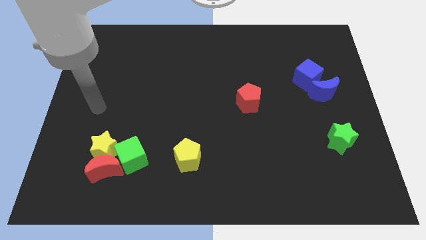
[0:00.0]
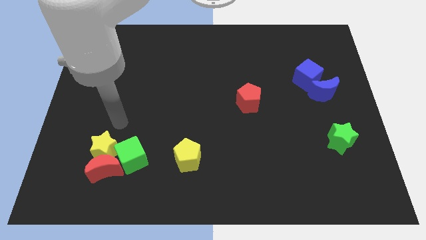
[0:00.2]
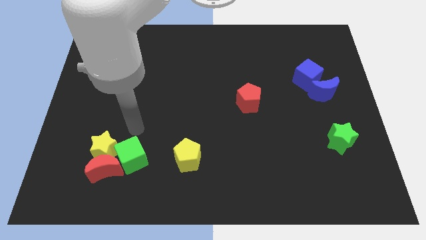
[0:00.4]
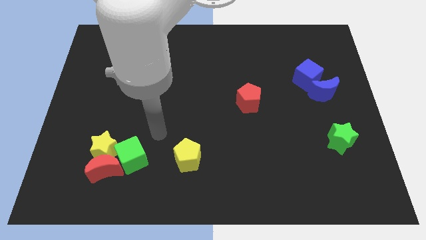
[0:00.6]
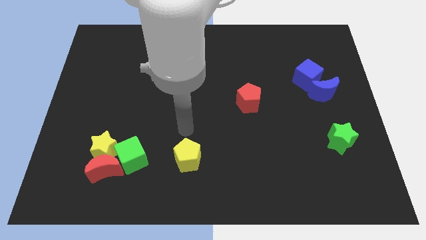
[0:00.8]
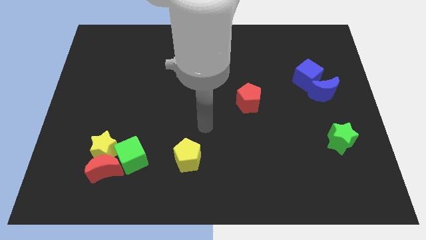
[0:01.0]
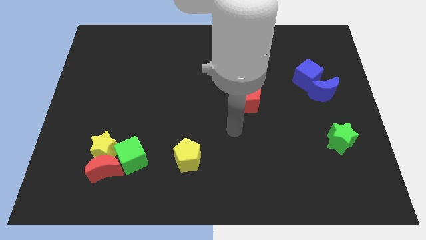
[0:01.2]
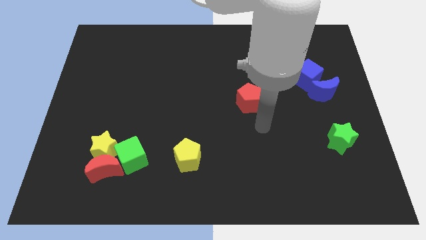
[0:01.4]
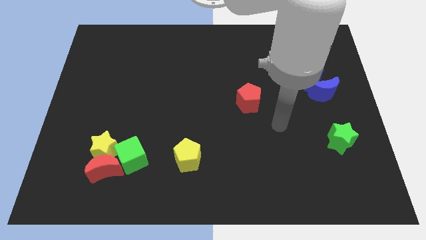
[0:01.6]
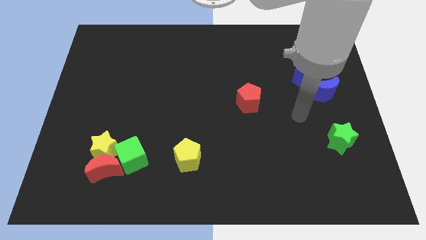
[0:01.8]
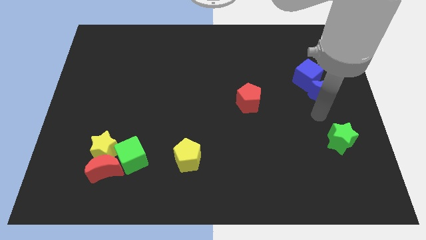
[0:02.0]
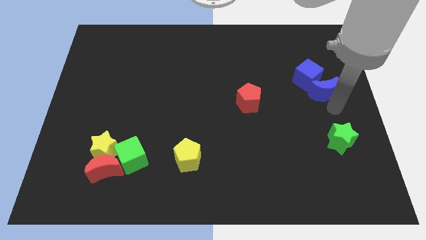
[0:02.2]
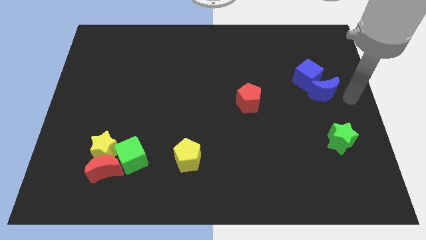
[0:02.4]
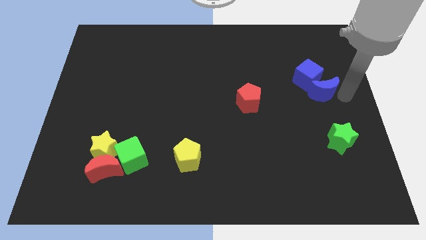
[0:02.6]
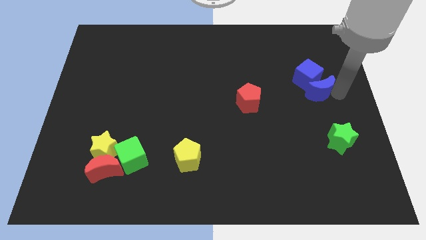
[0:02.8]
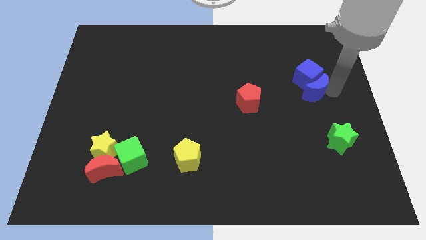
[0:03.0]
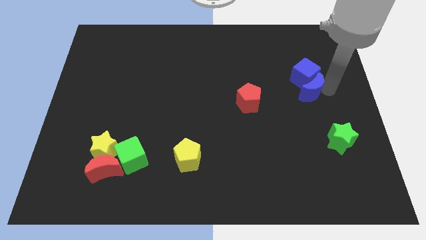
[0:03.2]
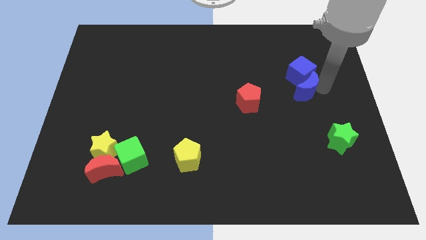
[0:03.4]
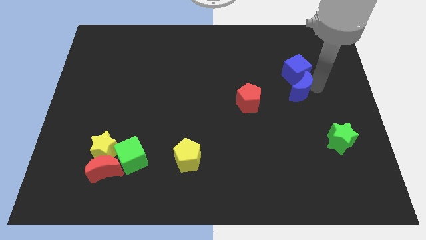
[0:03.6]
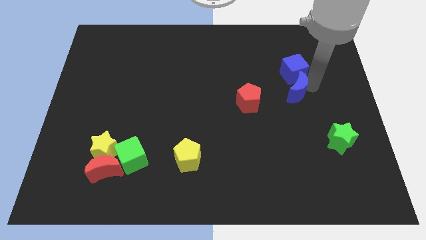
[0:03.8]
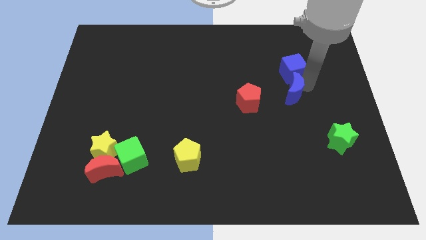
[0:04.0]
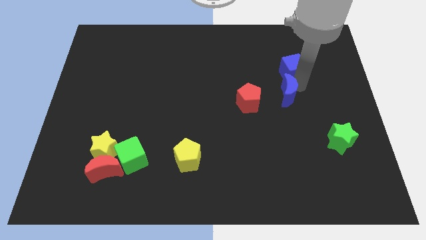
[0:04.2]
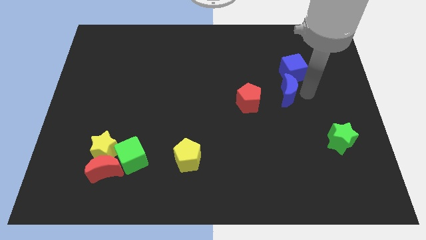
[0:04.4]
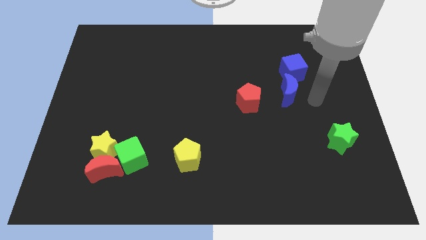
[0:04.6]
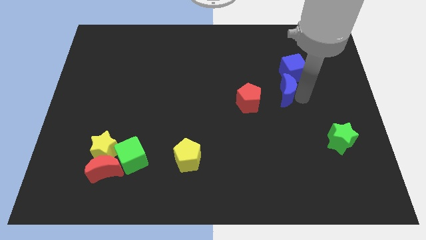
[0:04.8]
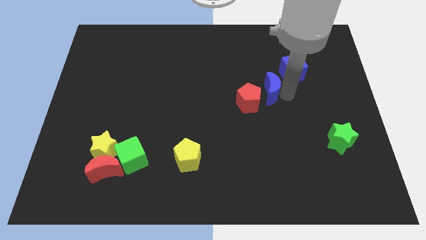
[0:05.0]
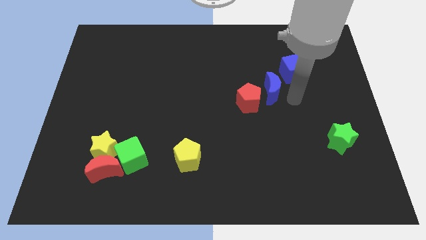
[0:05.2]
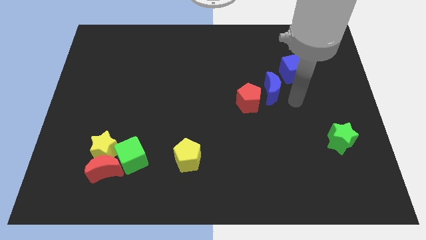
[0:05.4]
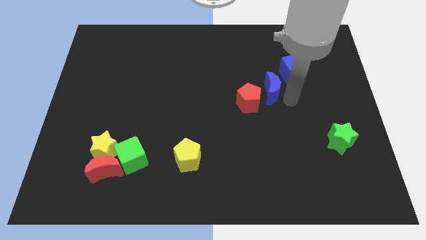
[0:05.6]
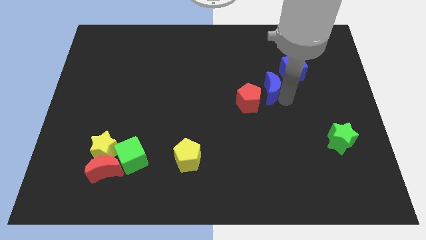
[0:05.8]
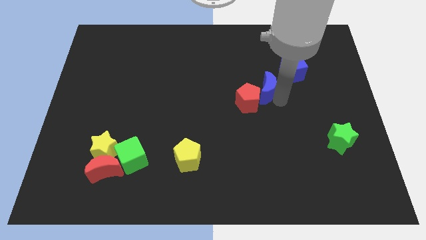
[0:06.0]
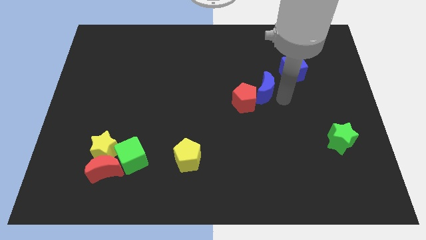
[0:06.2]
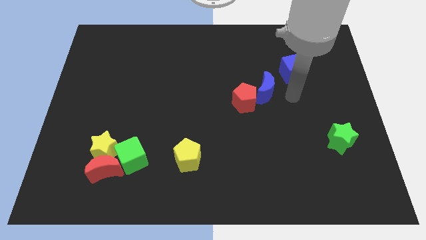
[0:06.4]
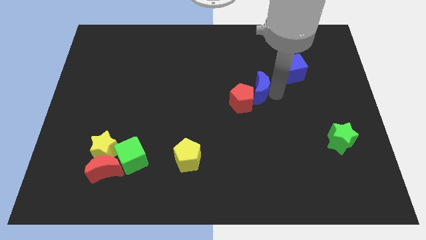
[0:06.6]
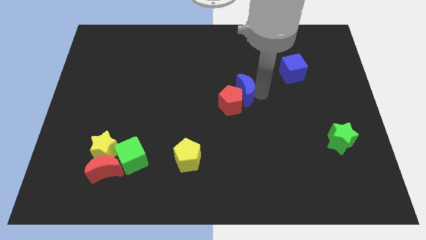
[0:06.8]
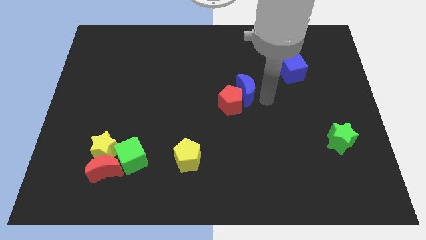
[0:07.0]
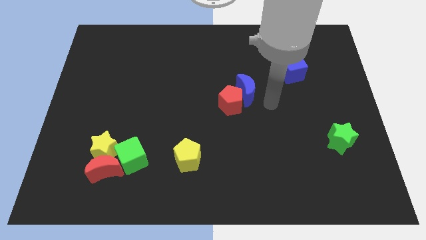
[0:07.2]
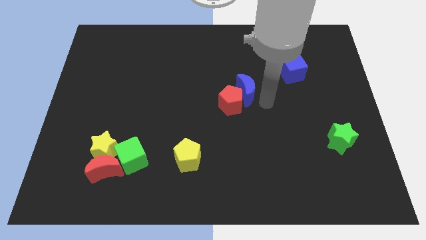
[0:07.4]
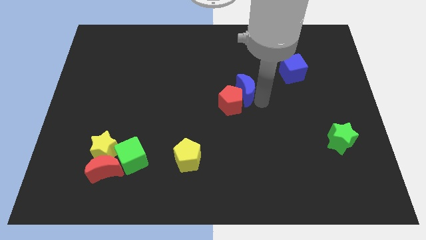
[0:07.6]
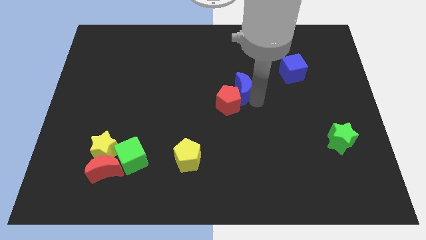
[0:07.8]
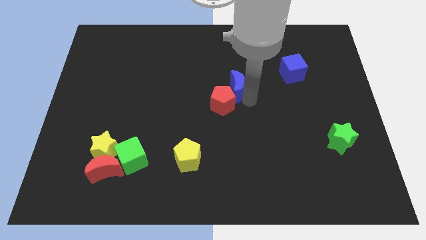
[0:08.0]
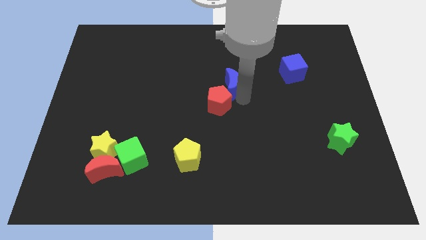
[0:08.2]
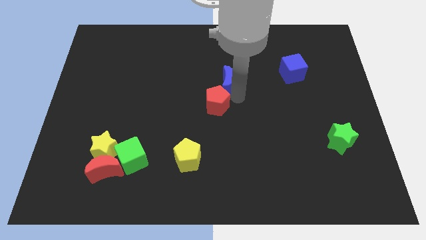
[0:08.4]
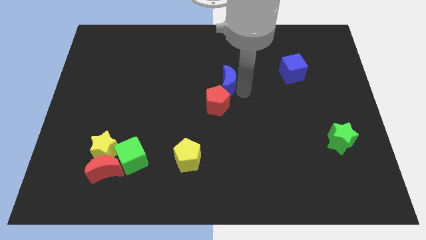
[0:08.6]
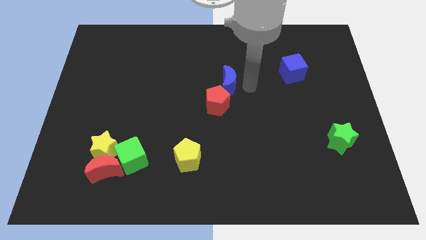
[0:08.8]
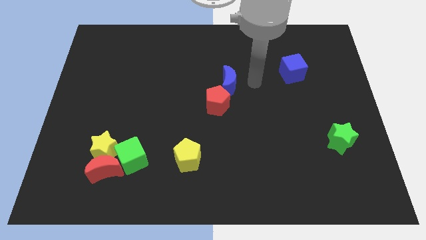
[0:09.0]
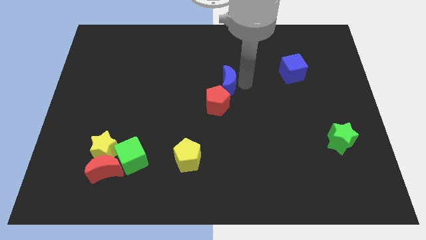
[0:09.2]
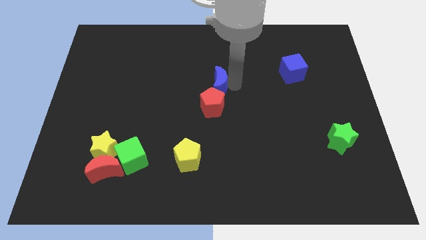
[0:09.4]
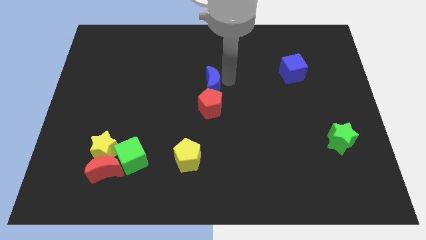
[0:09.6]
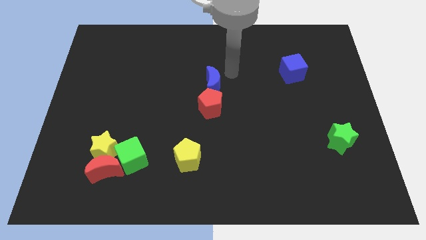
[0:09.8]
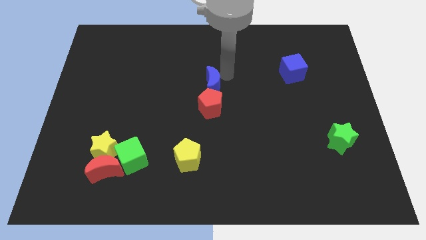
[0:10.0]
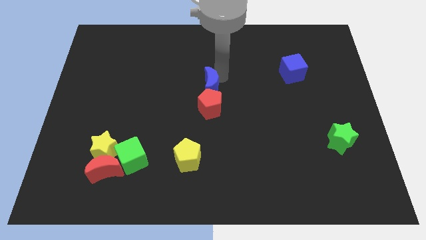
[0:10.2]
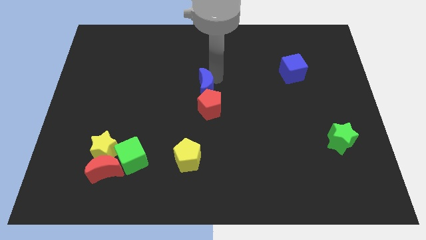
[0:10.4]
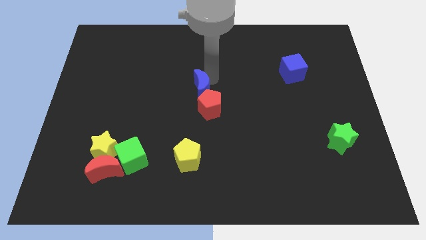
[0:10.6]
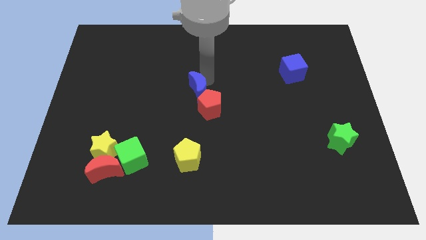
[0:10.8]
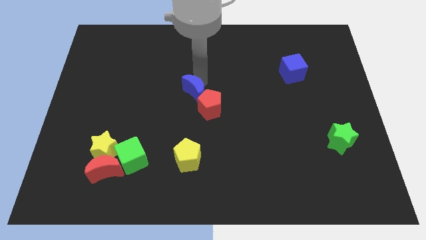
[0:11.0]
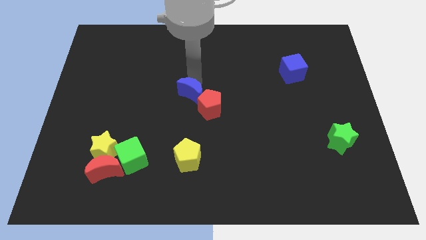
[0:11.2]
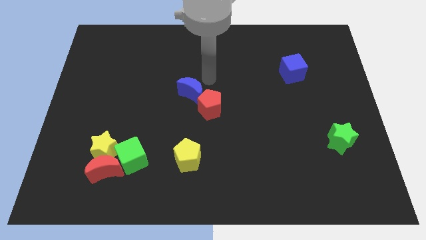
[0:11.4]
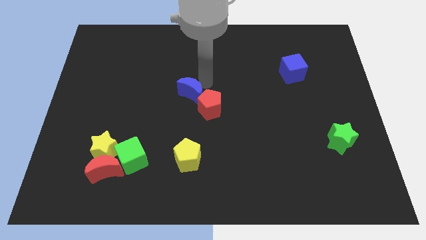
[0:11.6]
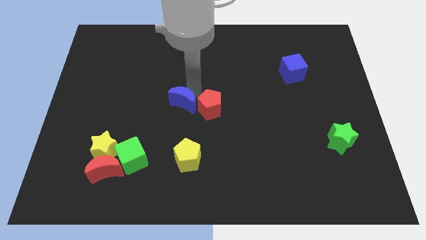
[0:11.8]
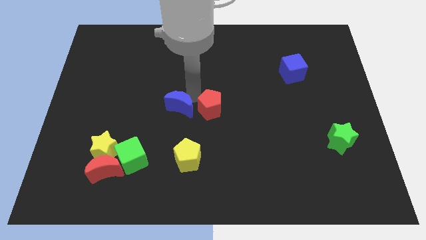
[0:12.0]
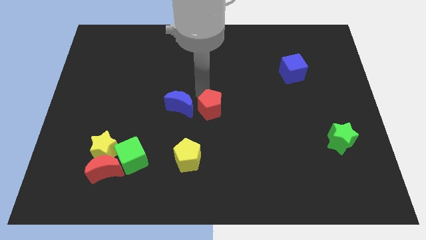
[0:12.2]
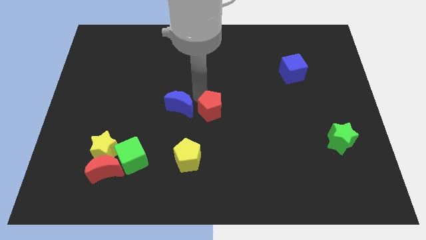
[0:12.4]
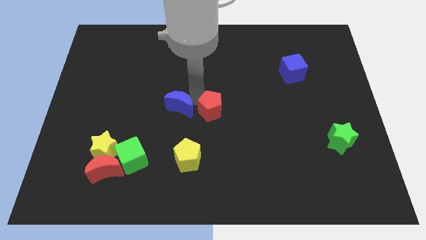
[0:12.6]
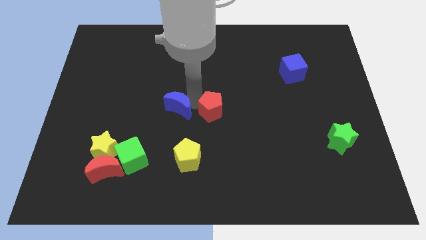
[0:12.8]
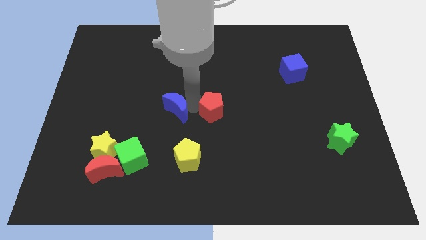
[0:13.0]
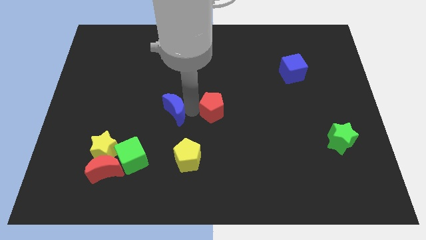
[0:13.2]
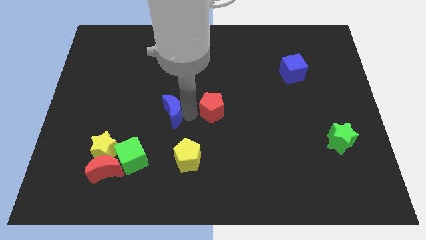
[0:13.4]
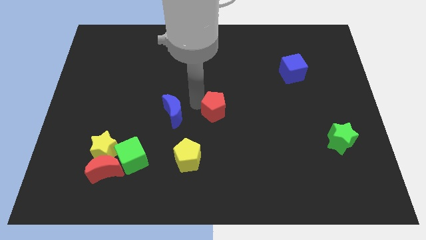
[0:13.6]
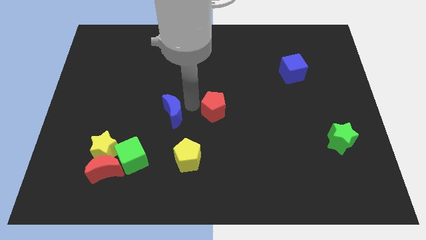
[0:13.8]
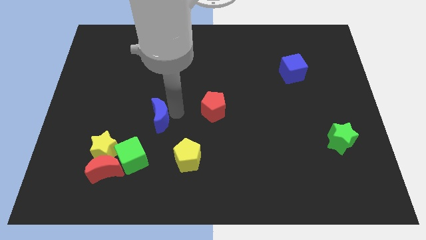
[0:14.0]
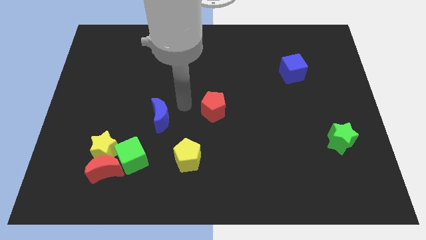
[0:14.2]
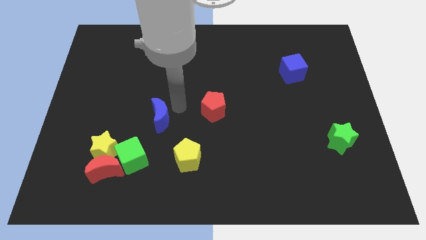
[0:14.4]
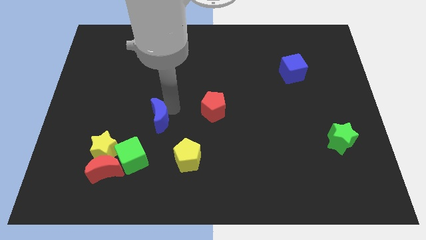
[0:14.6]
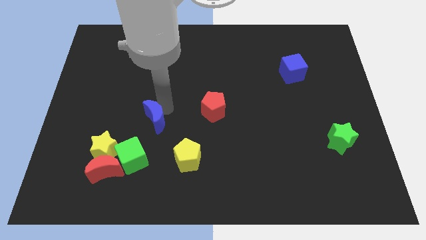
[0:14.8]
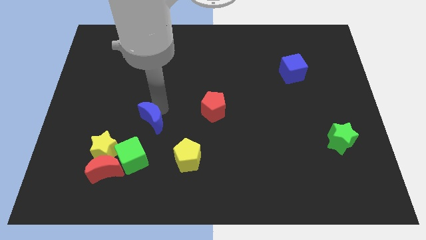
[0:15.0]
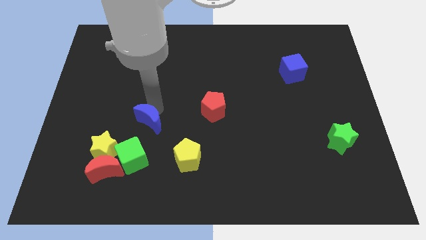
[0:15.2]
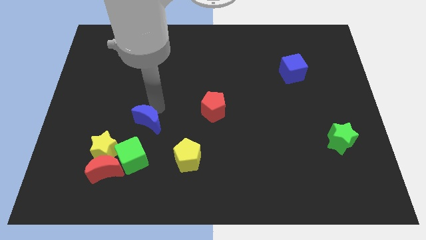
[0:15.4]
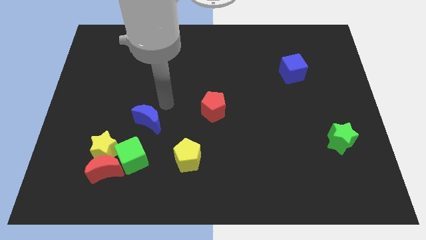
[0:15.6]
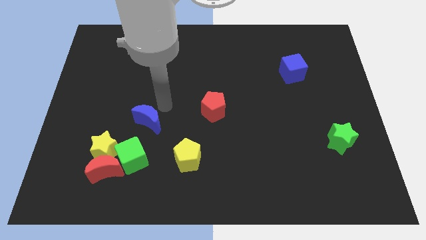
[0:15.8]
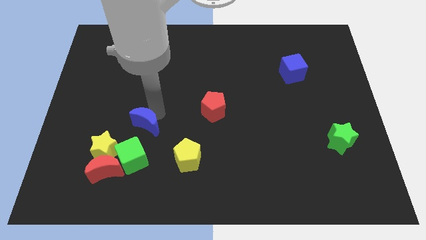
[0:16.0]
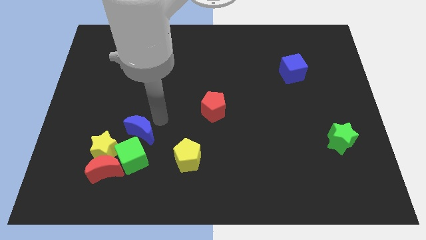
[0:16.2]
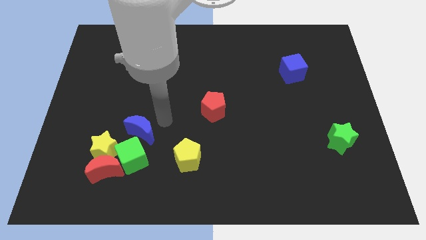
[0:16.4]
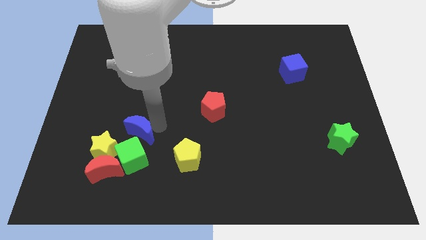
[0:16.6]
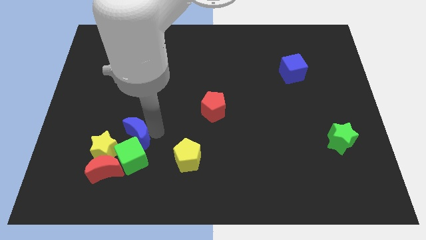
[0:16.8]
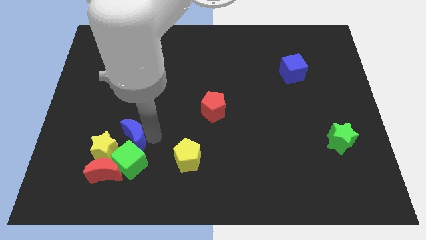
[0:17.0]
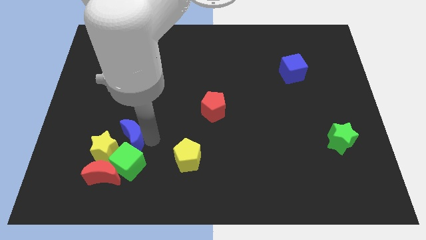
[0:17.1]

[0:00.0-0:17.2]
push the blue moon next to the yellow star
